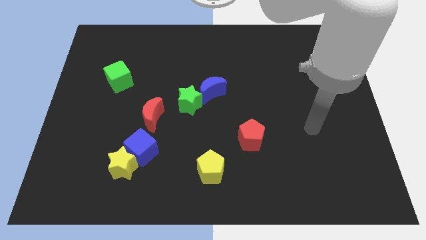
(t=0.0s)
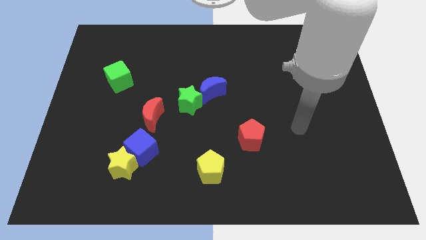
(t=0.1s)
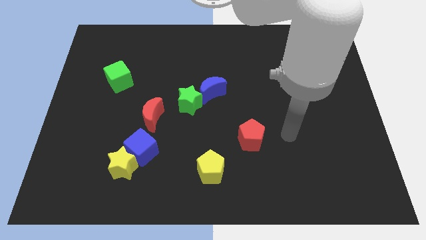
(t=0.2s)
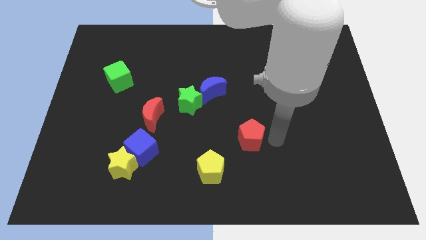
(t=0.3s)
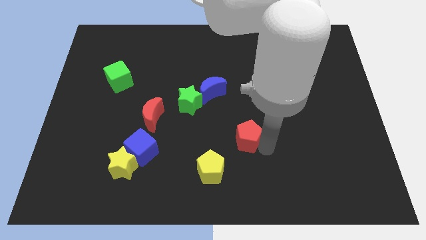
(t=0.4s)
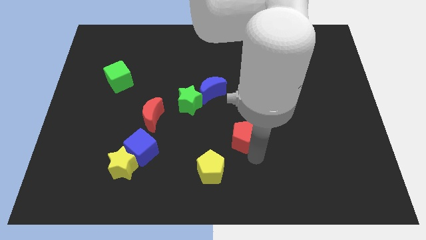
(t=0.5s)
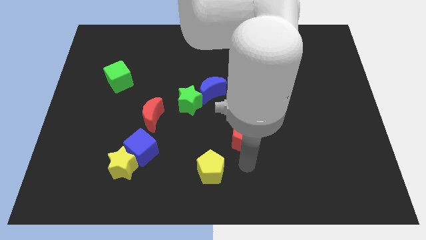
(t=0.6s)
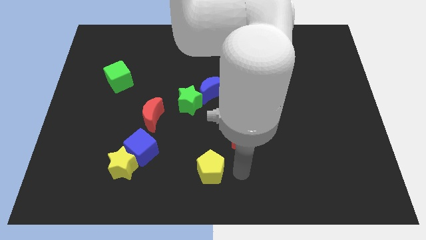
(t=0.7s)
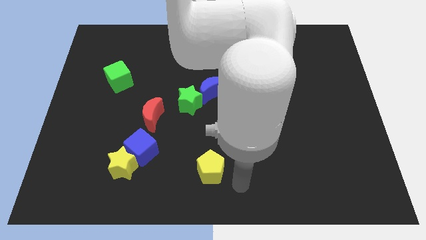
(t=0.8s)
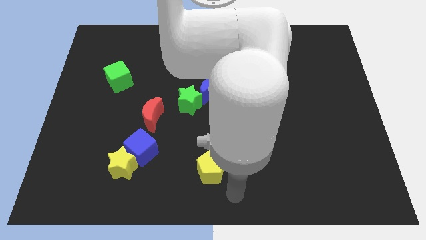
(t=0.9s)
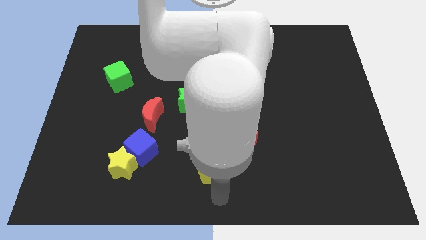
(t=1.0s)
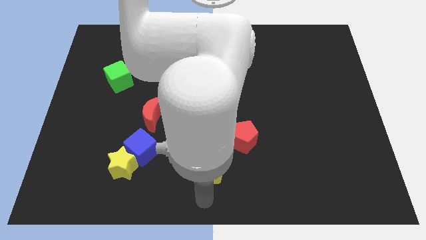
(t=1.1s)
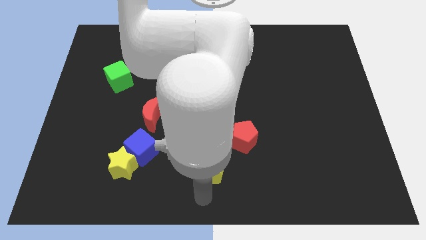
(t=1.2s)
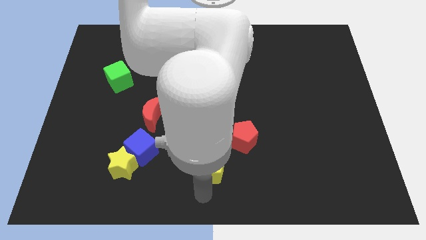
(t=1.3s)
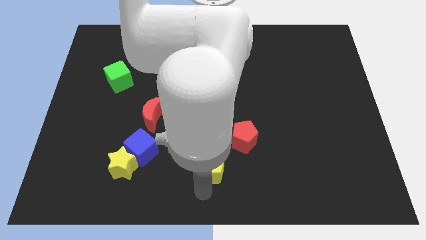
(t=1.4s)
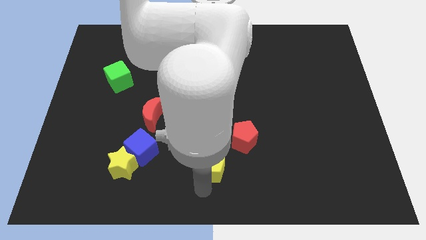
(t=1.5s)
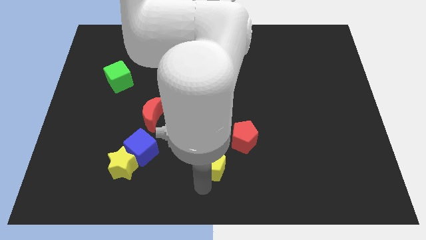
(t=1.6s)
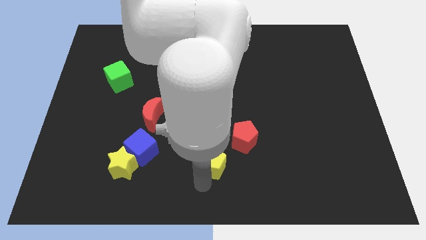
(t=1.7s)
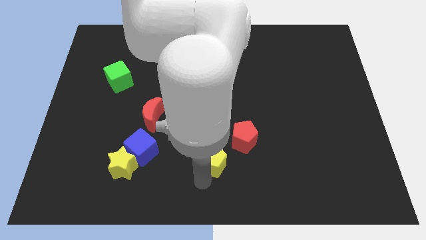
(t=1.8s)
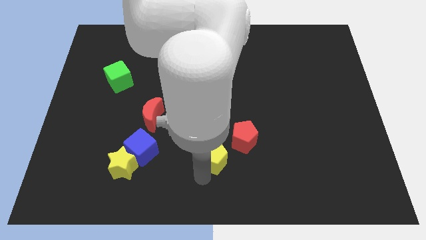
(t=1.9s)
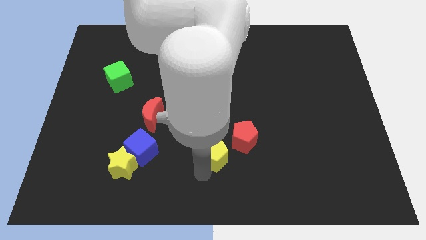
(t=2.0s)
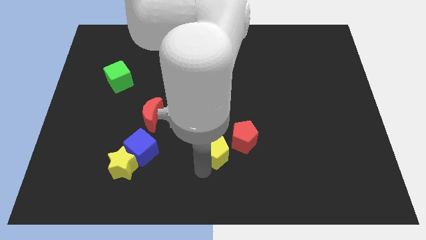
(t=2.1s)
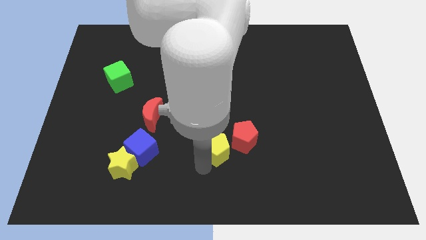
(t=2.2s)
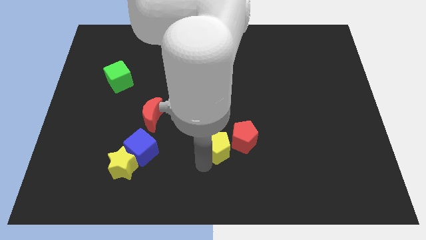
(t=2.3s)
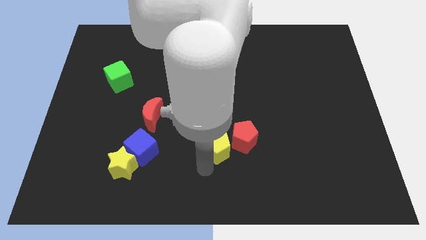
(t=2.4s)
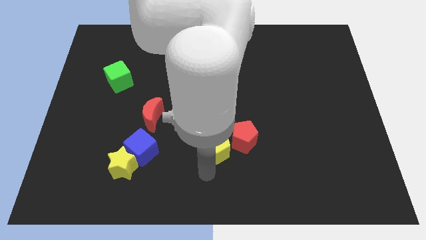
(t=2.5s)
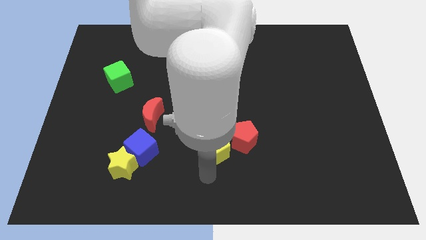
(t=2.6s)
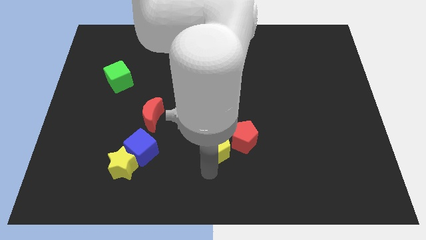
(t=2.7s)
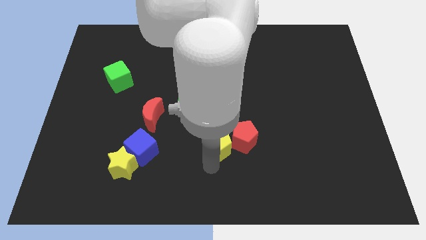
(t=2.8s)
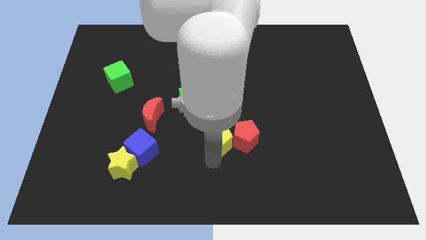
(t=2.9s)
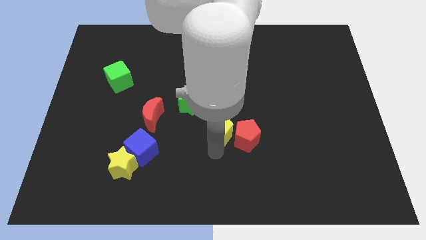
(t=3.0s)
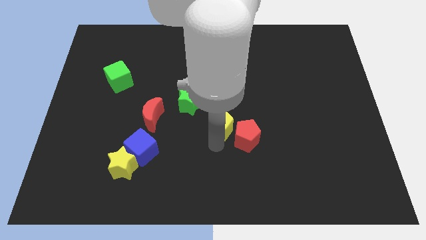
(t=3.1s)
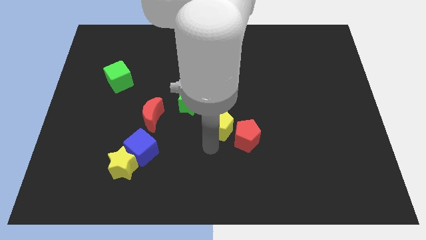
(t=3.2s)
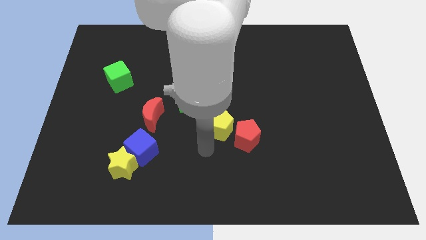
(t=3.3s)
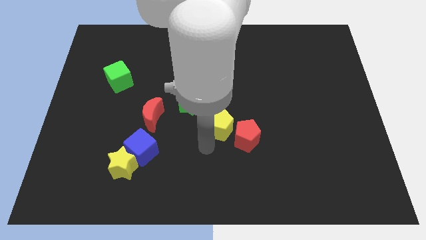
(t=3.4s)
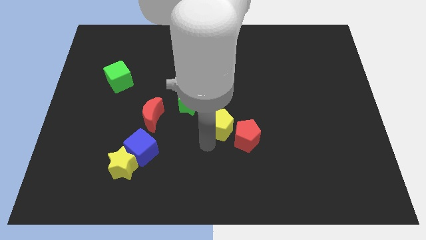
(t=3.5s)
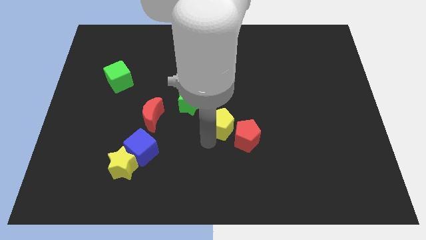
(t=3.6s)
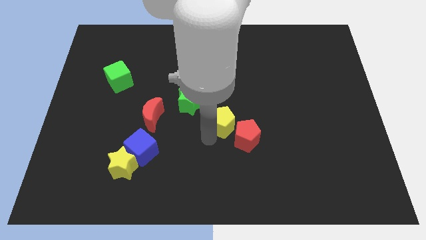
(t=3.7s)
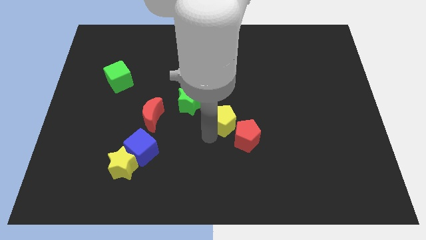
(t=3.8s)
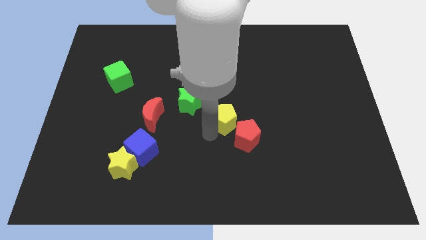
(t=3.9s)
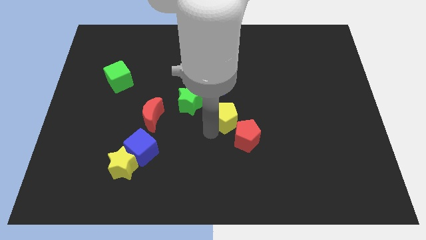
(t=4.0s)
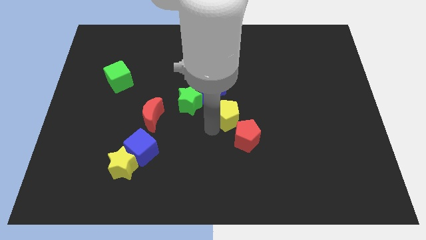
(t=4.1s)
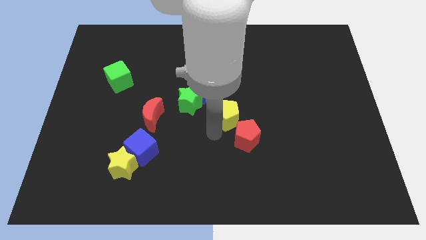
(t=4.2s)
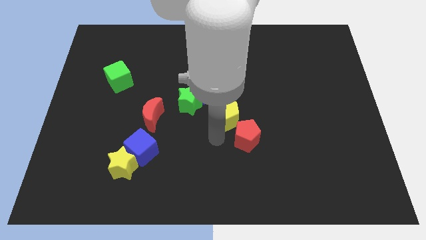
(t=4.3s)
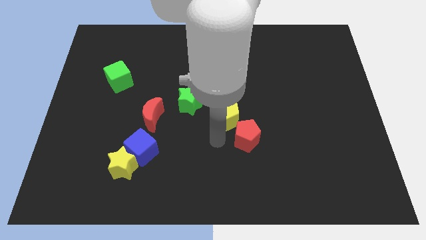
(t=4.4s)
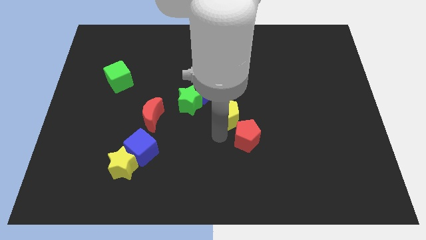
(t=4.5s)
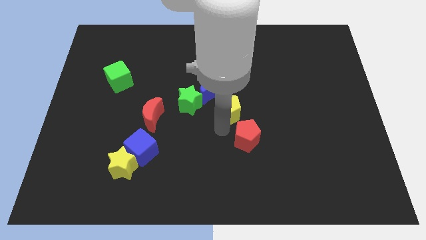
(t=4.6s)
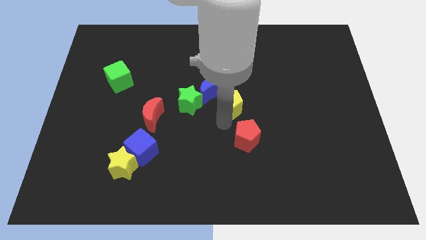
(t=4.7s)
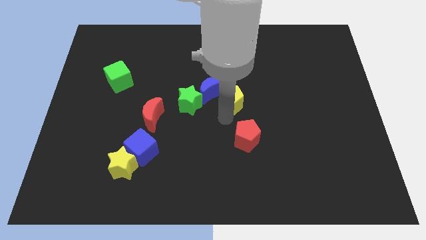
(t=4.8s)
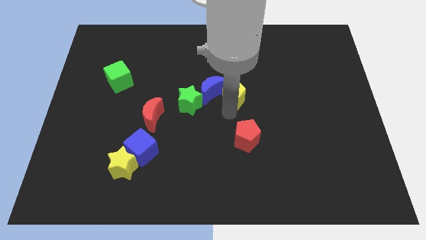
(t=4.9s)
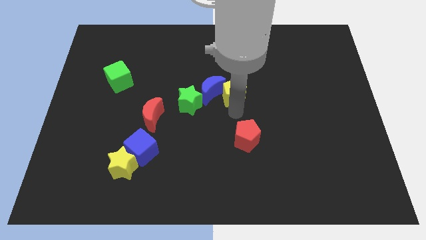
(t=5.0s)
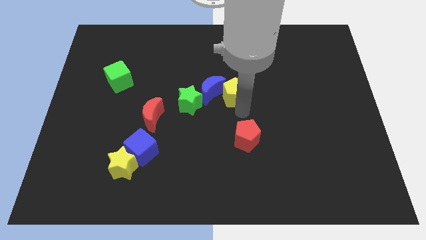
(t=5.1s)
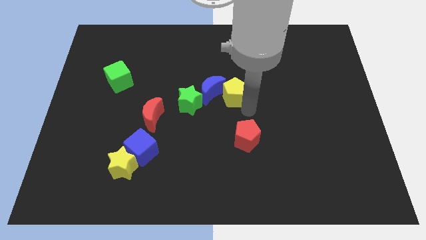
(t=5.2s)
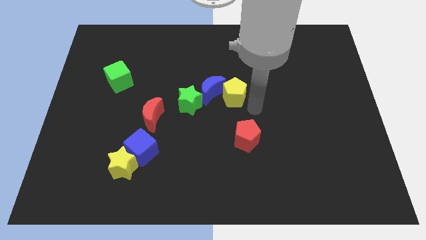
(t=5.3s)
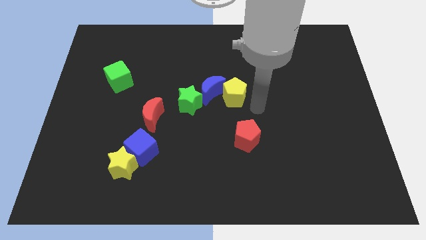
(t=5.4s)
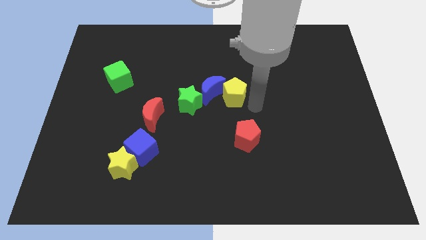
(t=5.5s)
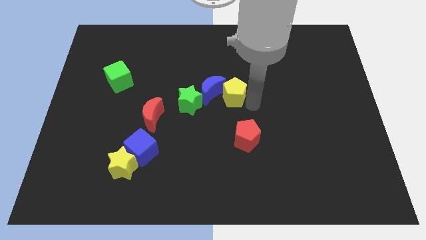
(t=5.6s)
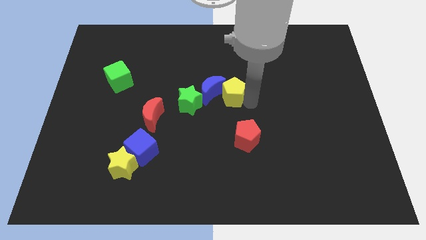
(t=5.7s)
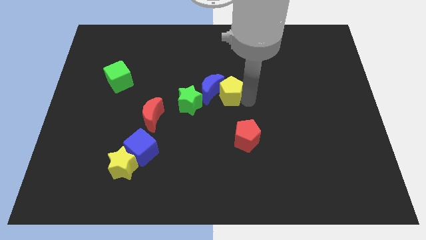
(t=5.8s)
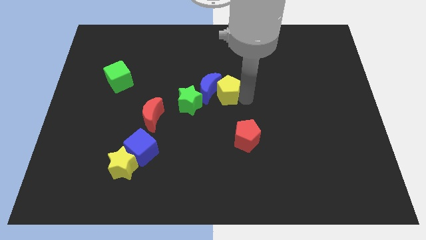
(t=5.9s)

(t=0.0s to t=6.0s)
push the yellow pentagon diagonally up and to the right of the green star

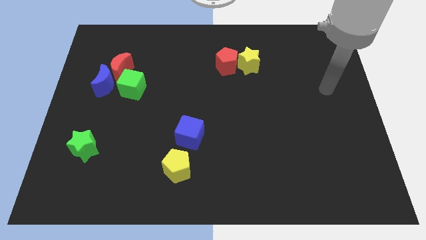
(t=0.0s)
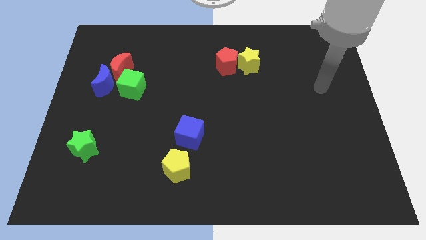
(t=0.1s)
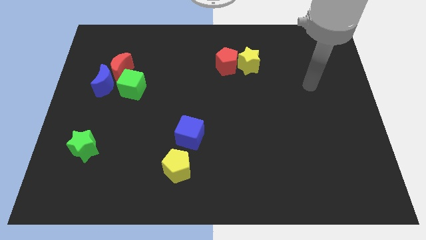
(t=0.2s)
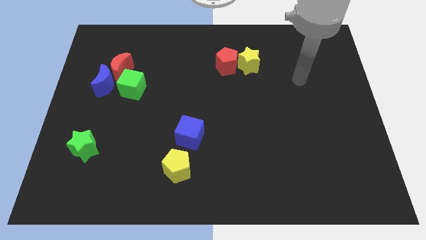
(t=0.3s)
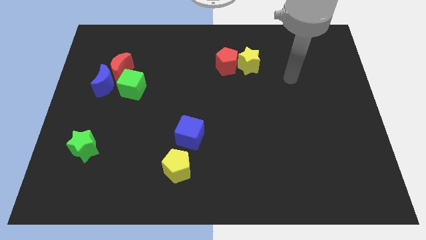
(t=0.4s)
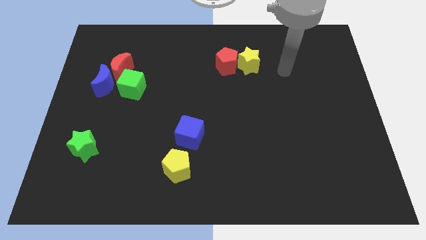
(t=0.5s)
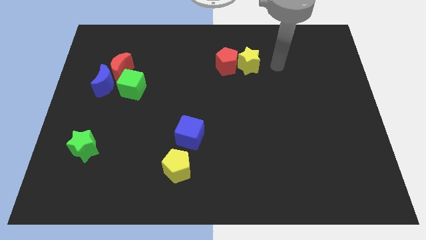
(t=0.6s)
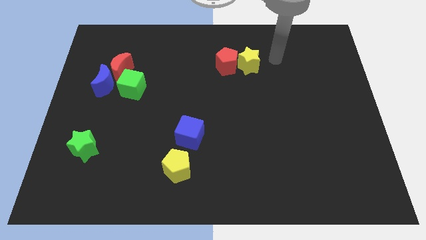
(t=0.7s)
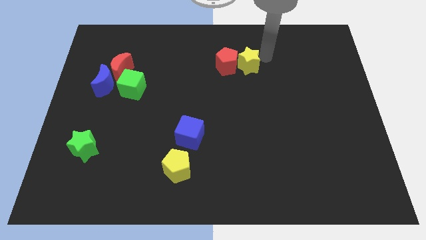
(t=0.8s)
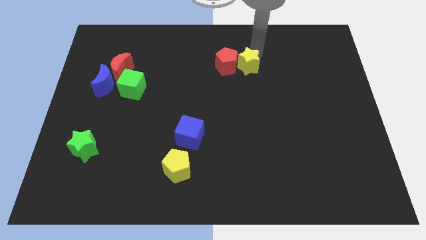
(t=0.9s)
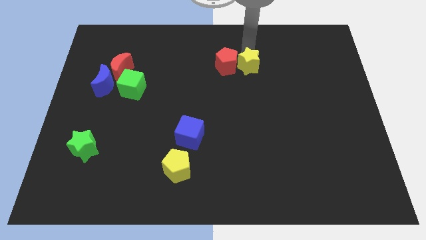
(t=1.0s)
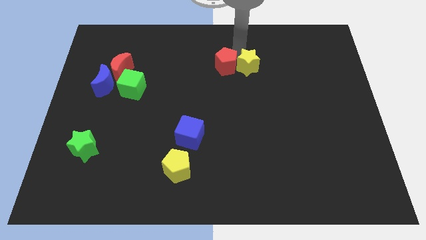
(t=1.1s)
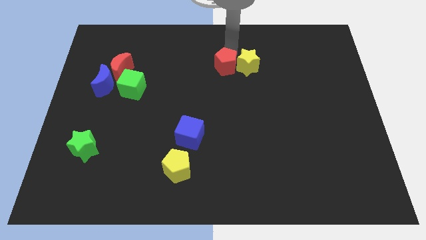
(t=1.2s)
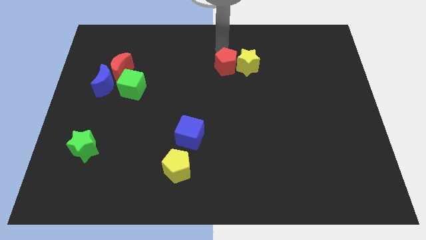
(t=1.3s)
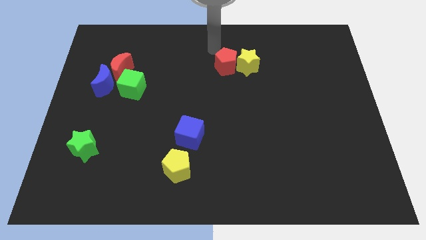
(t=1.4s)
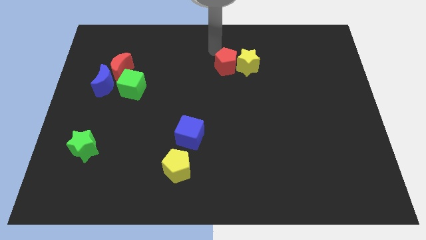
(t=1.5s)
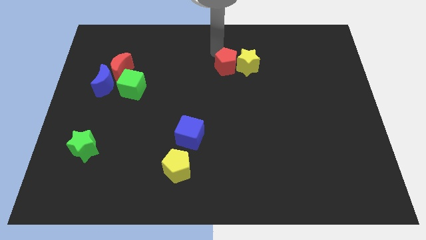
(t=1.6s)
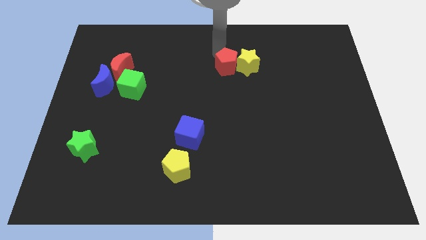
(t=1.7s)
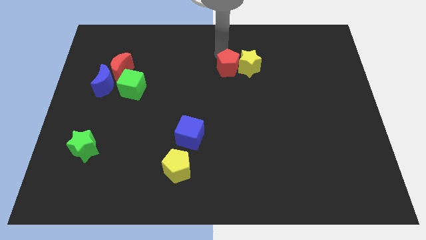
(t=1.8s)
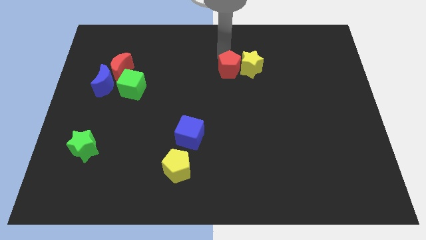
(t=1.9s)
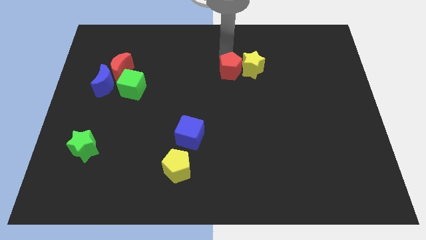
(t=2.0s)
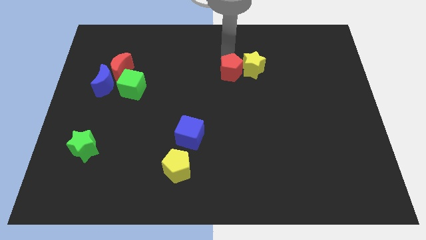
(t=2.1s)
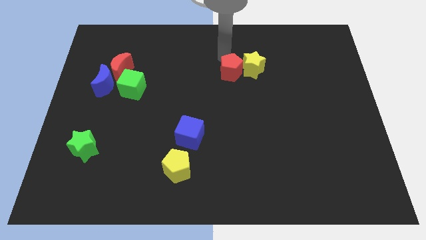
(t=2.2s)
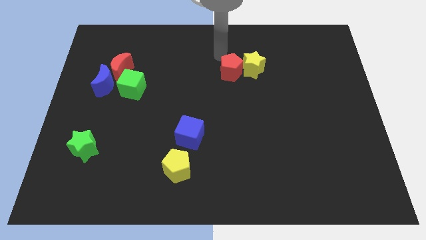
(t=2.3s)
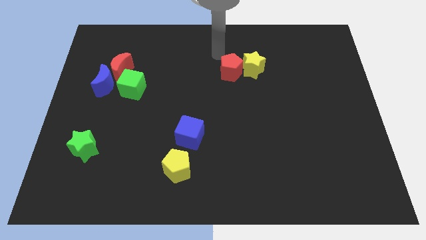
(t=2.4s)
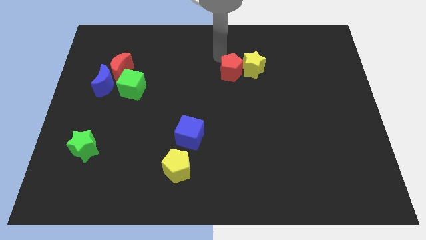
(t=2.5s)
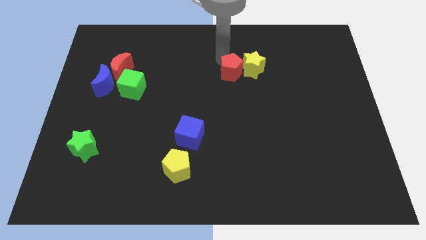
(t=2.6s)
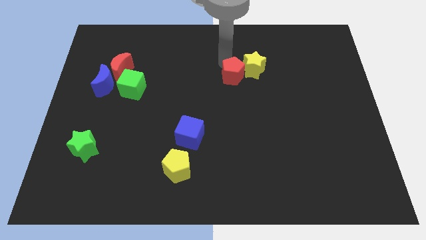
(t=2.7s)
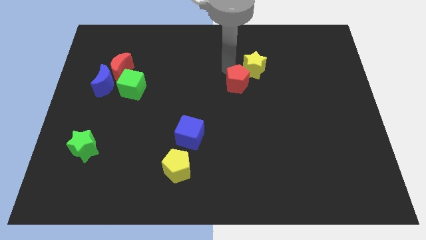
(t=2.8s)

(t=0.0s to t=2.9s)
slide the red pentagon below the yellow star
